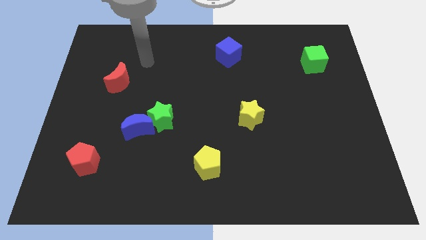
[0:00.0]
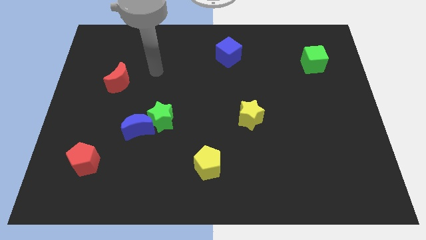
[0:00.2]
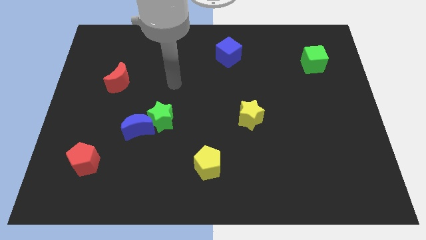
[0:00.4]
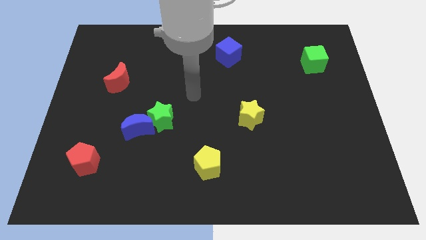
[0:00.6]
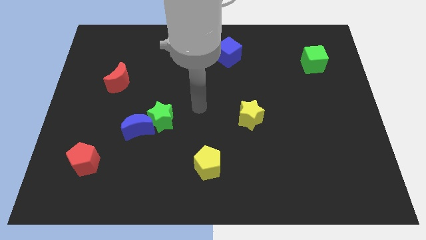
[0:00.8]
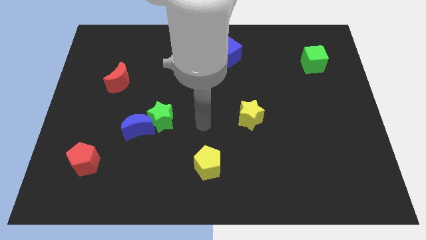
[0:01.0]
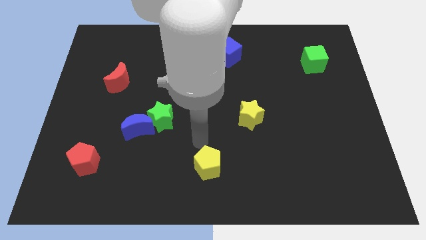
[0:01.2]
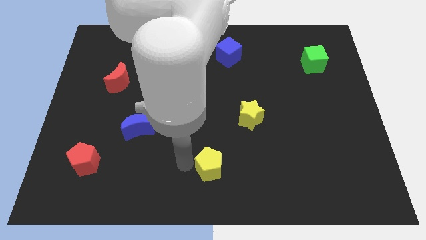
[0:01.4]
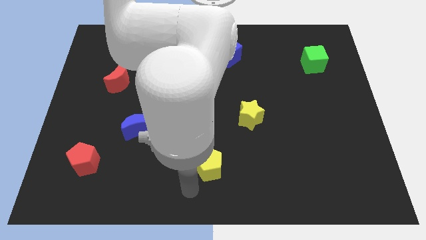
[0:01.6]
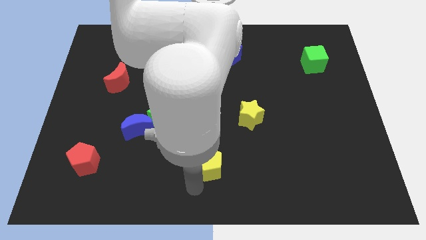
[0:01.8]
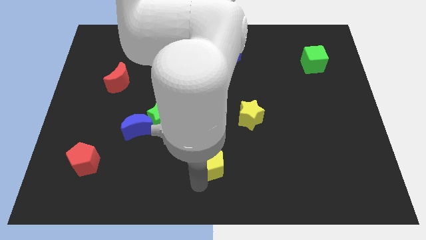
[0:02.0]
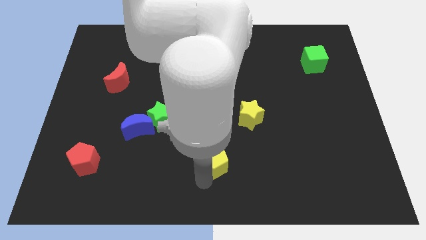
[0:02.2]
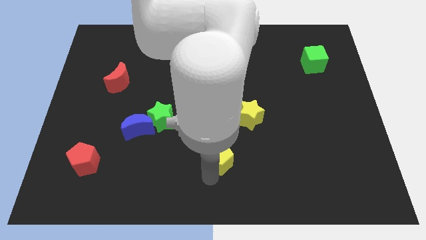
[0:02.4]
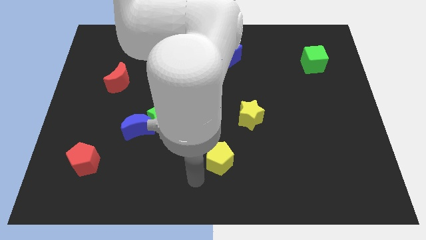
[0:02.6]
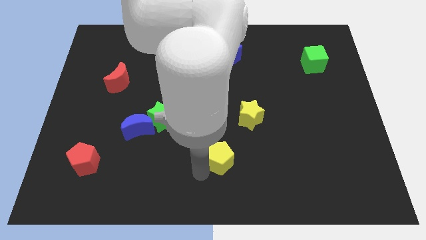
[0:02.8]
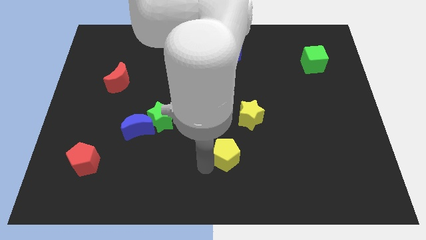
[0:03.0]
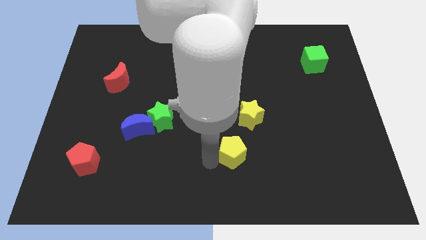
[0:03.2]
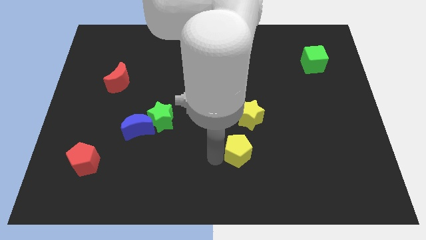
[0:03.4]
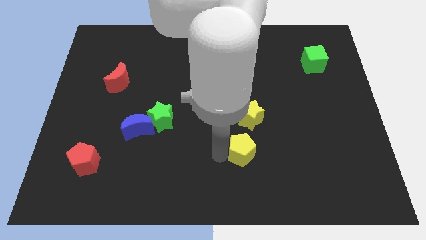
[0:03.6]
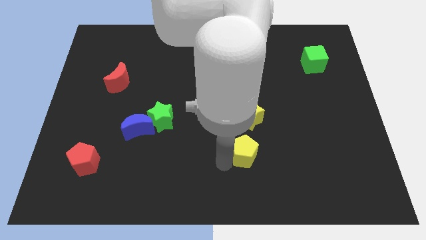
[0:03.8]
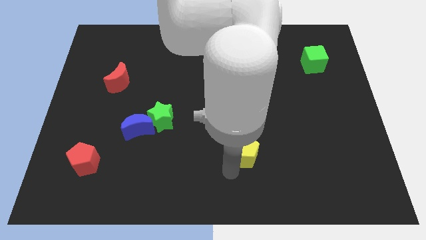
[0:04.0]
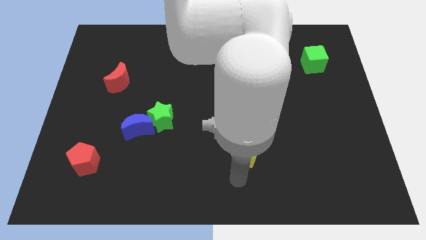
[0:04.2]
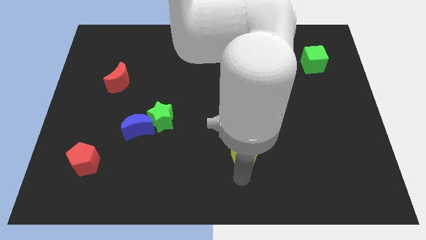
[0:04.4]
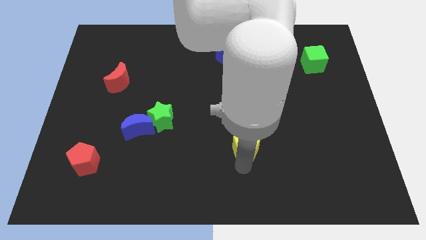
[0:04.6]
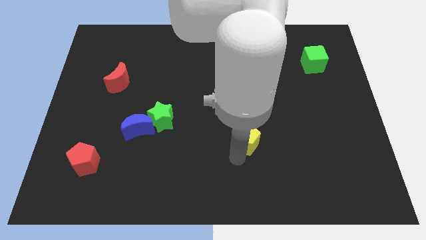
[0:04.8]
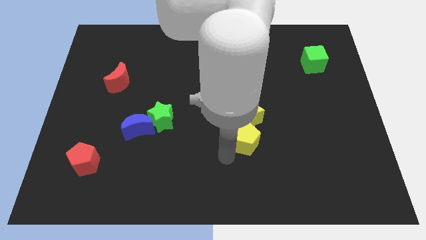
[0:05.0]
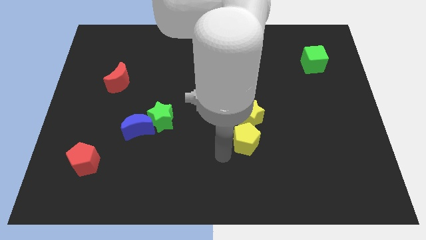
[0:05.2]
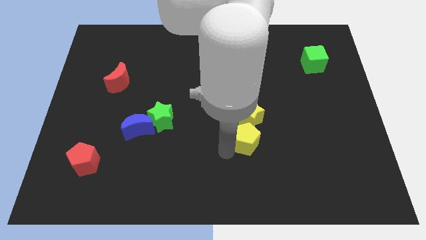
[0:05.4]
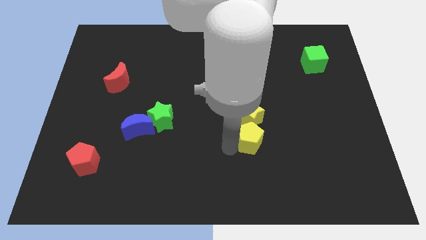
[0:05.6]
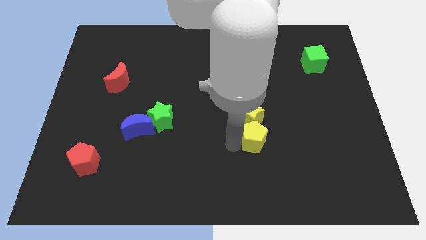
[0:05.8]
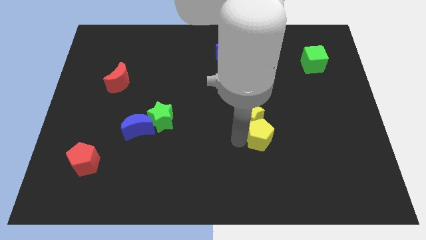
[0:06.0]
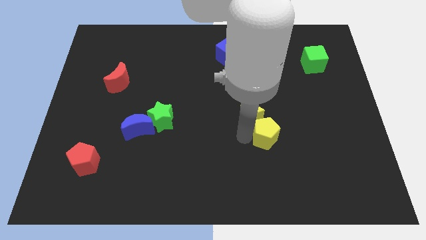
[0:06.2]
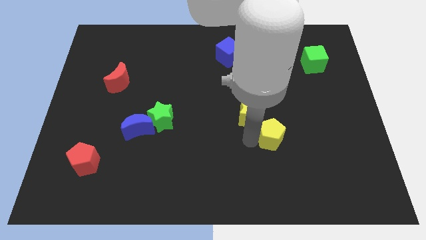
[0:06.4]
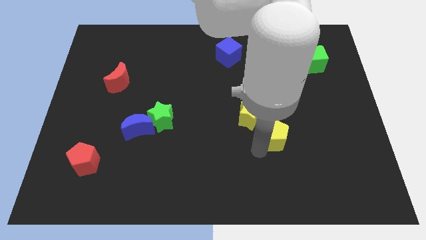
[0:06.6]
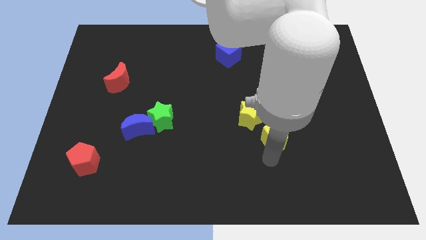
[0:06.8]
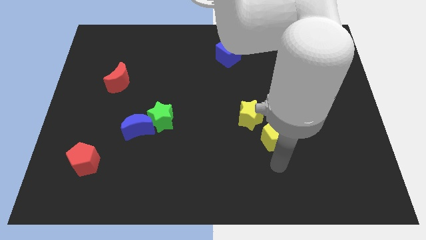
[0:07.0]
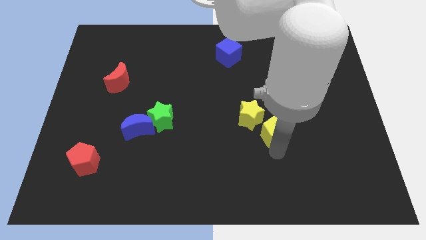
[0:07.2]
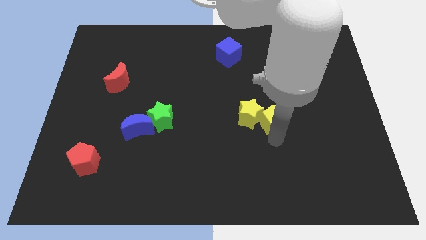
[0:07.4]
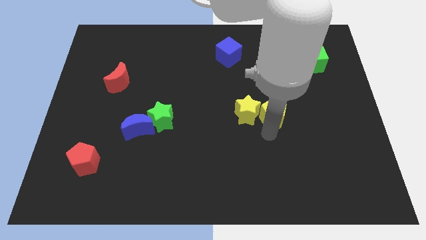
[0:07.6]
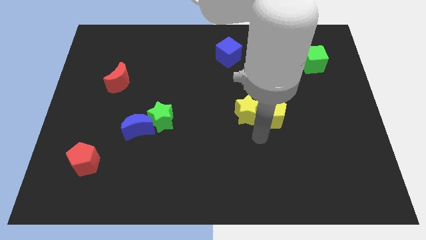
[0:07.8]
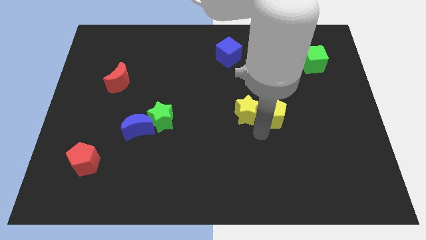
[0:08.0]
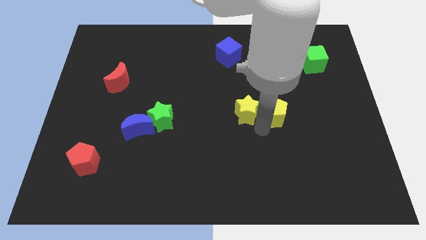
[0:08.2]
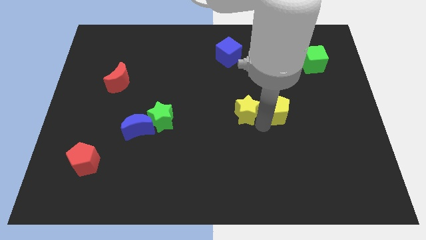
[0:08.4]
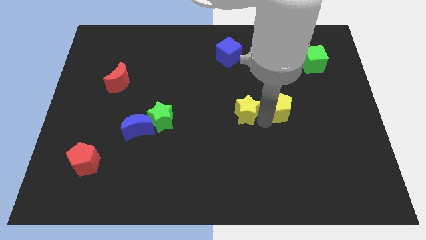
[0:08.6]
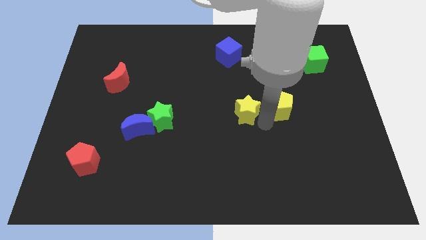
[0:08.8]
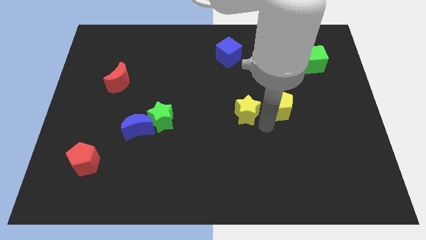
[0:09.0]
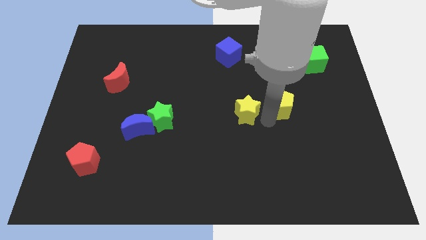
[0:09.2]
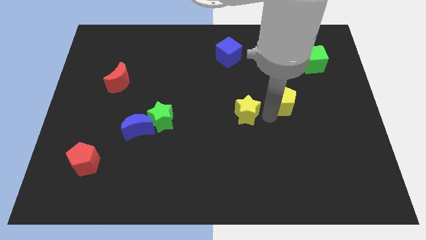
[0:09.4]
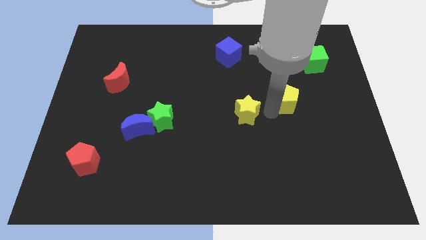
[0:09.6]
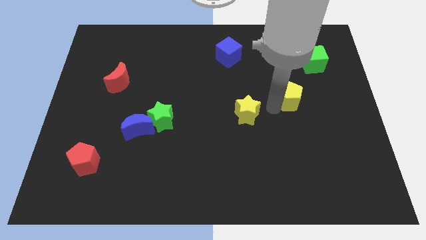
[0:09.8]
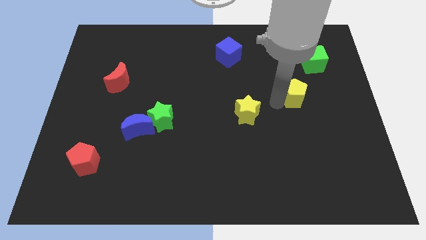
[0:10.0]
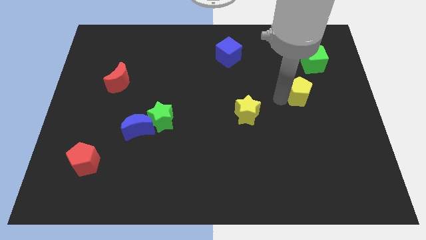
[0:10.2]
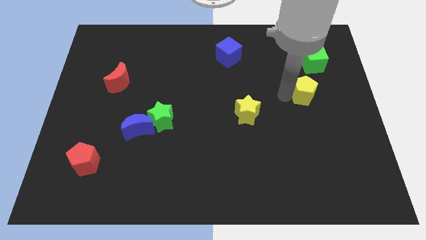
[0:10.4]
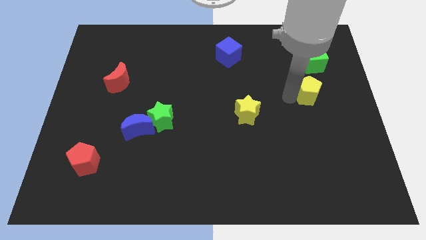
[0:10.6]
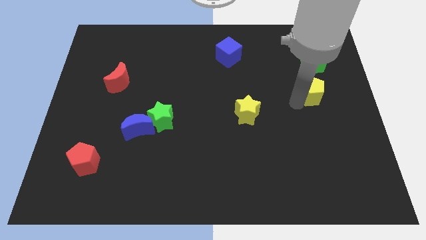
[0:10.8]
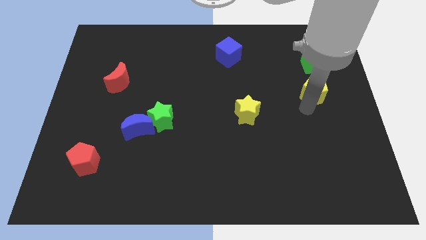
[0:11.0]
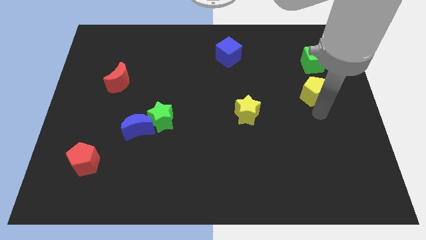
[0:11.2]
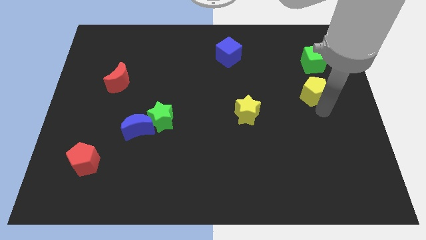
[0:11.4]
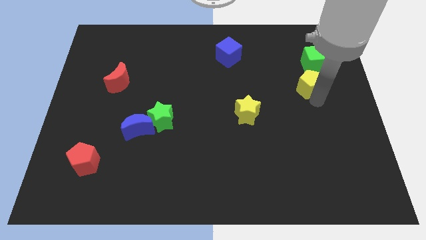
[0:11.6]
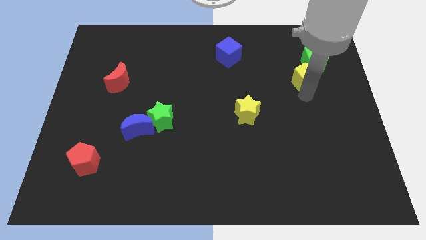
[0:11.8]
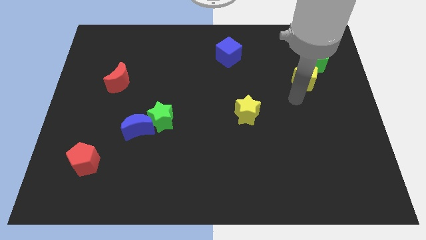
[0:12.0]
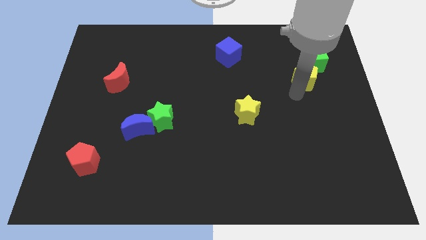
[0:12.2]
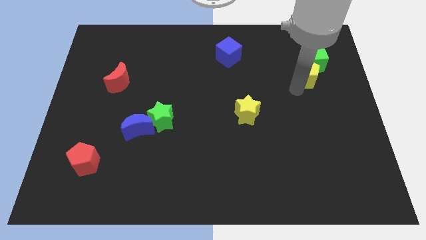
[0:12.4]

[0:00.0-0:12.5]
move the yellow pentagon close to the green cube

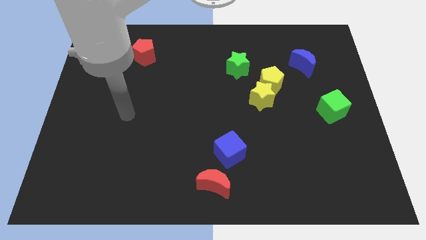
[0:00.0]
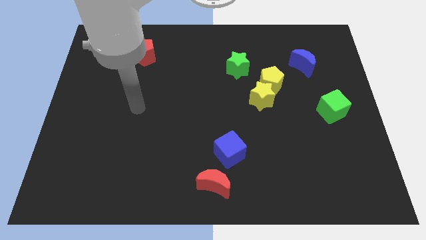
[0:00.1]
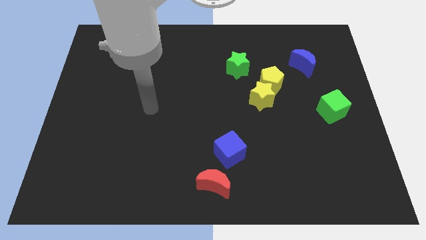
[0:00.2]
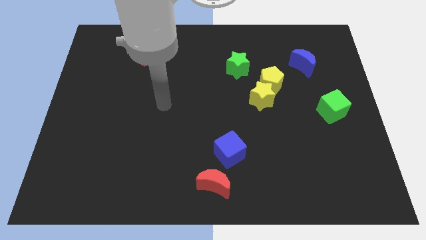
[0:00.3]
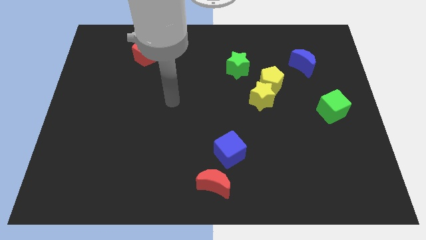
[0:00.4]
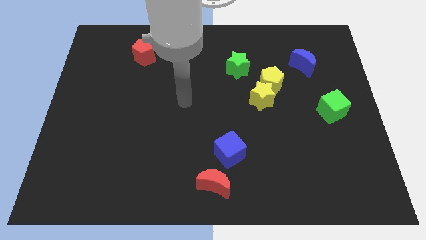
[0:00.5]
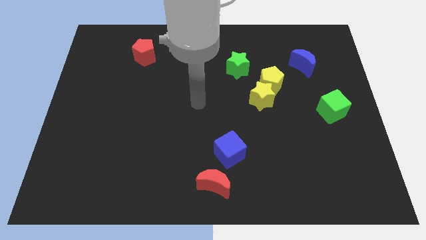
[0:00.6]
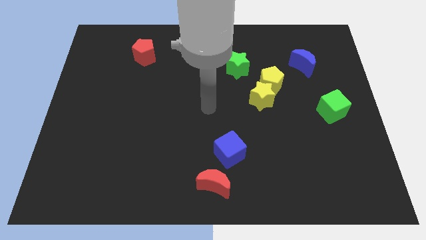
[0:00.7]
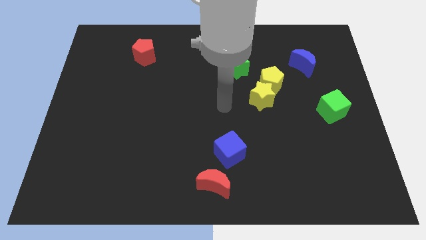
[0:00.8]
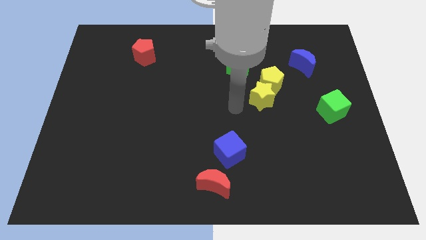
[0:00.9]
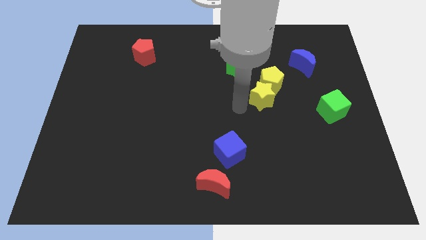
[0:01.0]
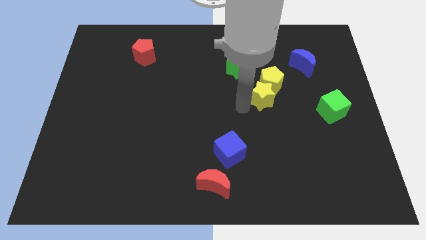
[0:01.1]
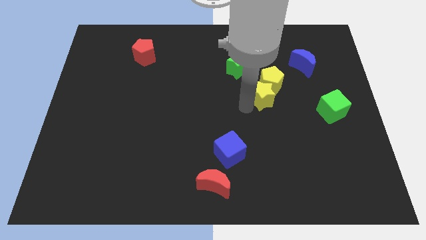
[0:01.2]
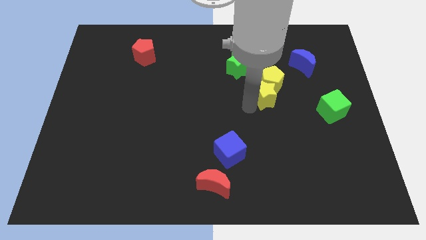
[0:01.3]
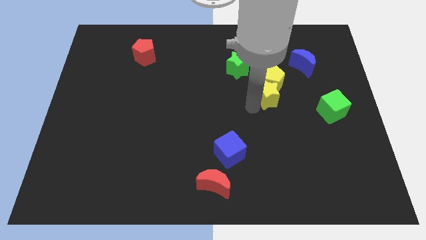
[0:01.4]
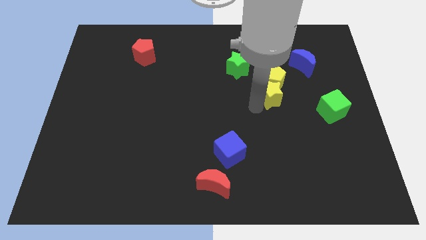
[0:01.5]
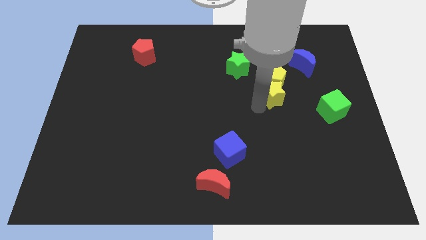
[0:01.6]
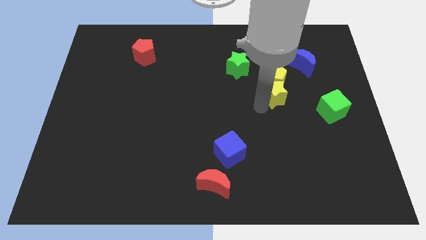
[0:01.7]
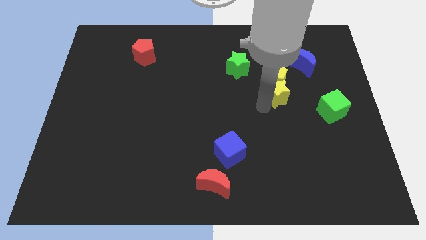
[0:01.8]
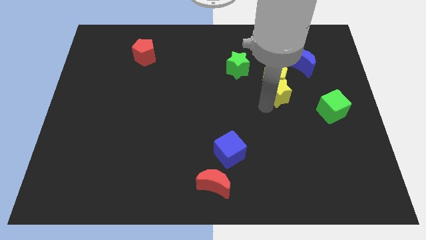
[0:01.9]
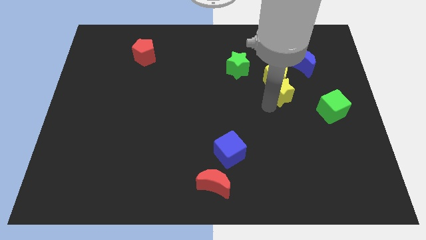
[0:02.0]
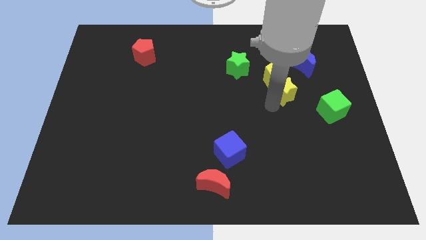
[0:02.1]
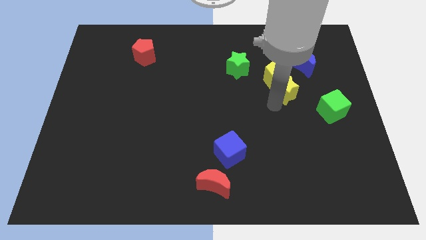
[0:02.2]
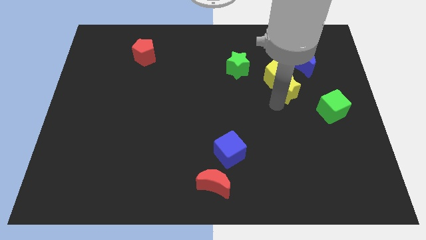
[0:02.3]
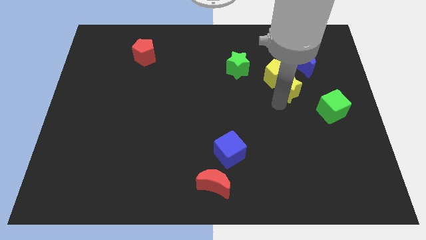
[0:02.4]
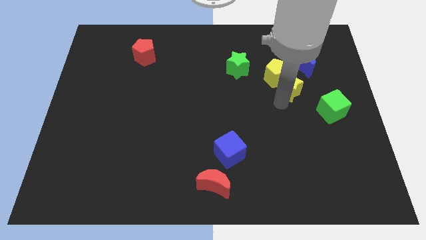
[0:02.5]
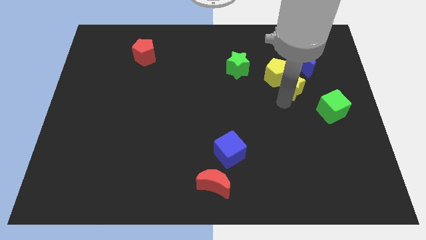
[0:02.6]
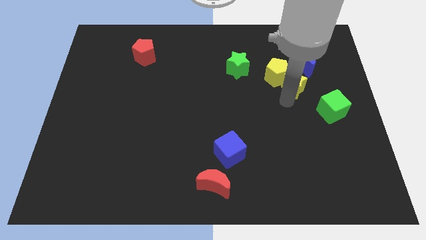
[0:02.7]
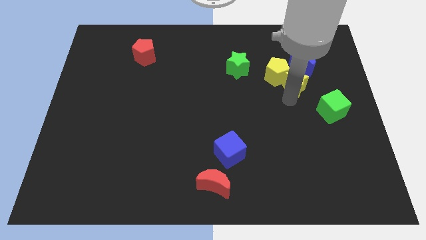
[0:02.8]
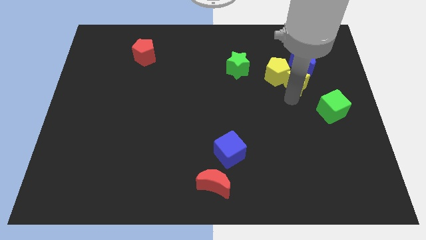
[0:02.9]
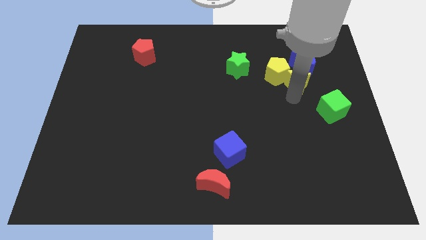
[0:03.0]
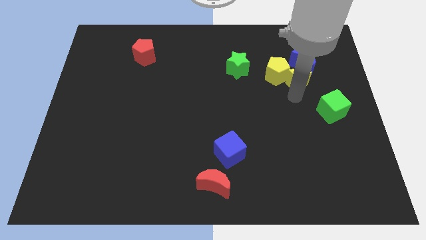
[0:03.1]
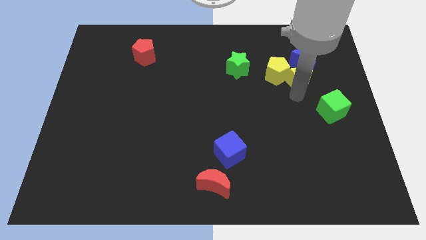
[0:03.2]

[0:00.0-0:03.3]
push the yellow star to the blue moon
